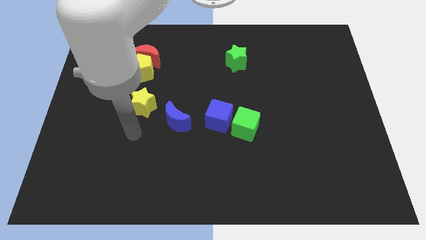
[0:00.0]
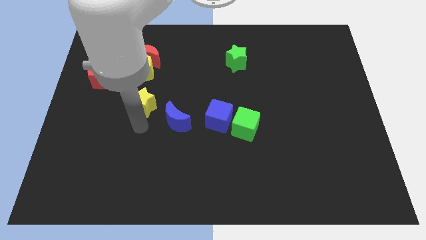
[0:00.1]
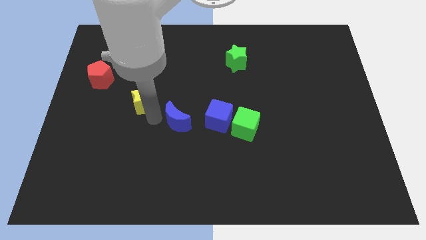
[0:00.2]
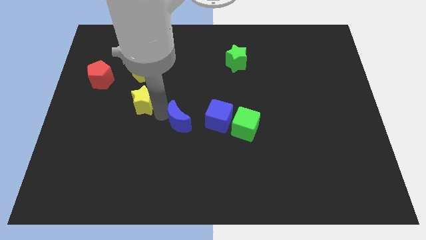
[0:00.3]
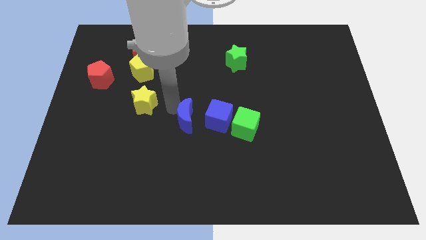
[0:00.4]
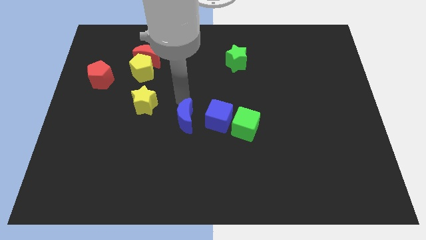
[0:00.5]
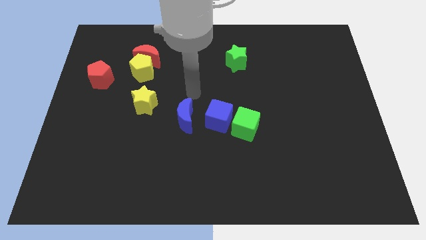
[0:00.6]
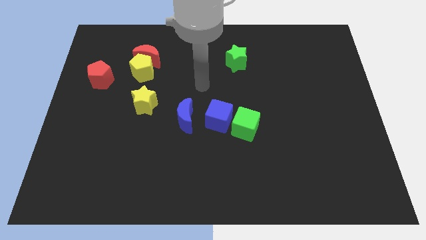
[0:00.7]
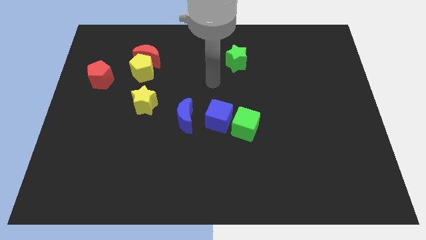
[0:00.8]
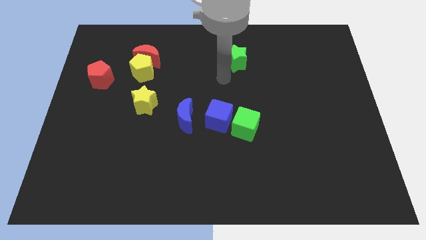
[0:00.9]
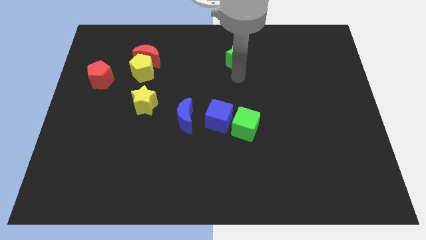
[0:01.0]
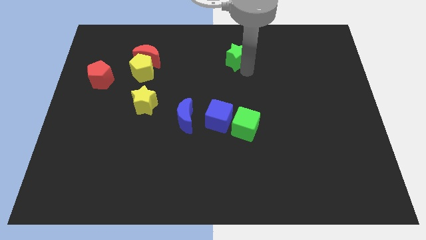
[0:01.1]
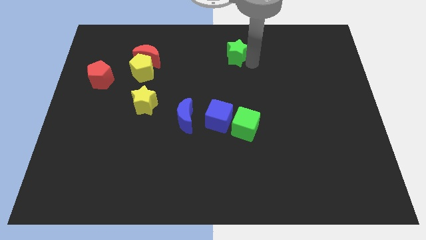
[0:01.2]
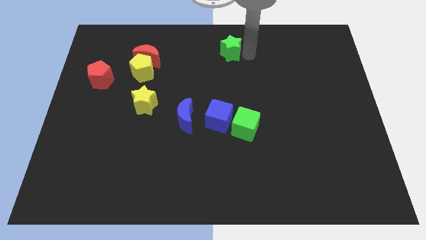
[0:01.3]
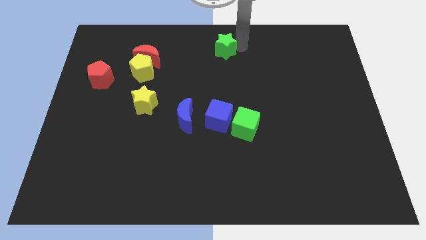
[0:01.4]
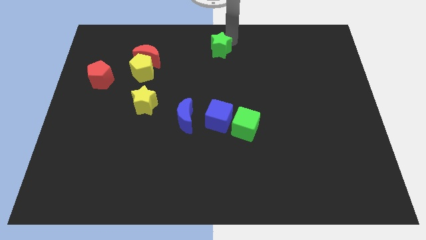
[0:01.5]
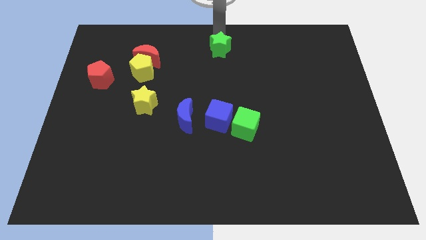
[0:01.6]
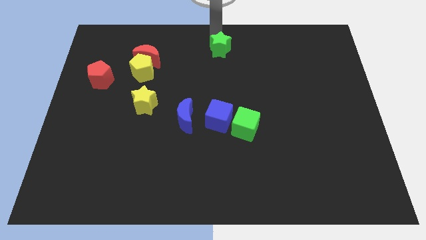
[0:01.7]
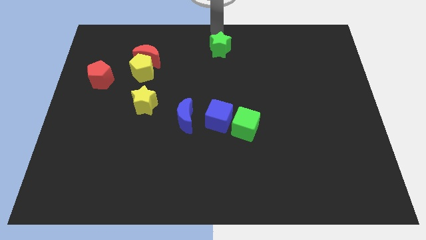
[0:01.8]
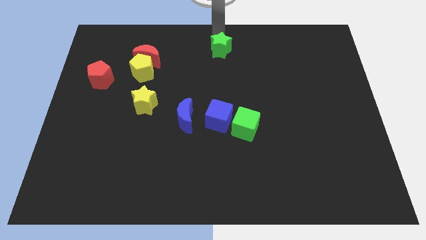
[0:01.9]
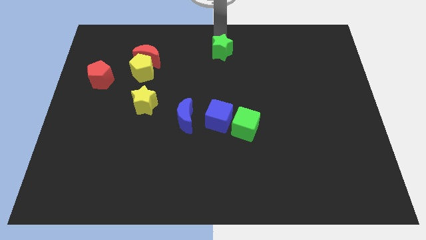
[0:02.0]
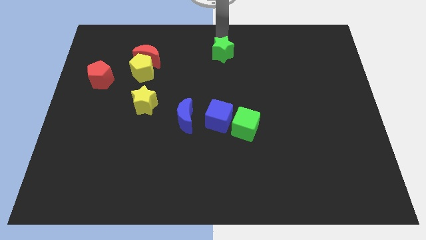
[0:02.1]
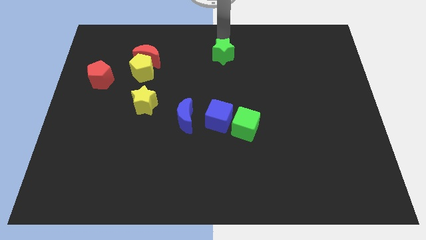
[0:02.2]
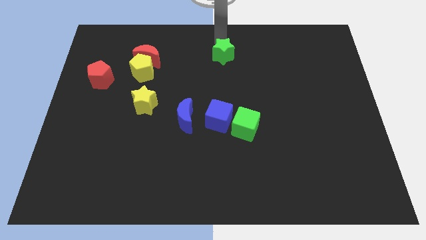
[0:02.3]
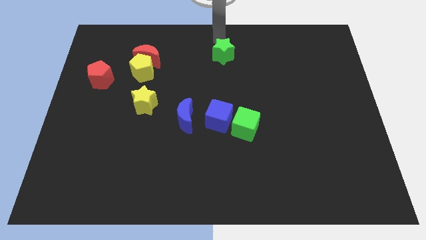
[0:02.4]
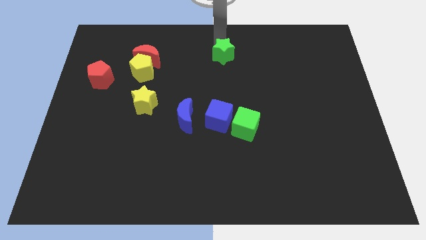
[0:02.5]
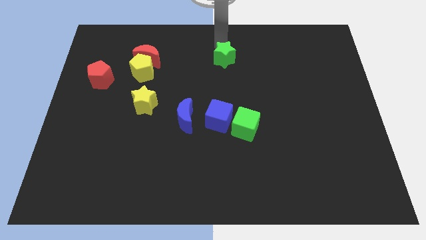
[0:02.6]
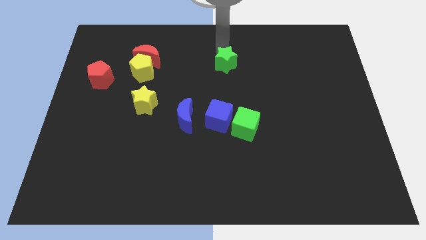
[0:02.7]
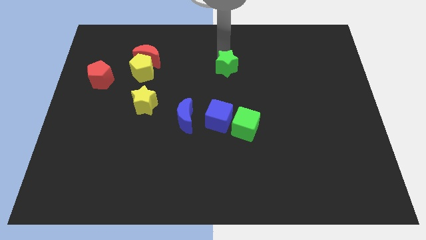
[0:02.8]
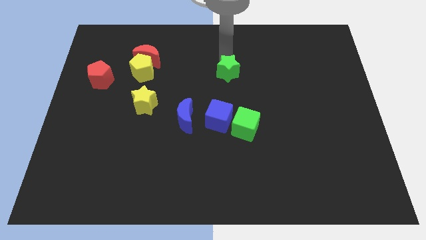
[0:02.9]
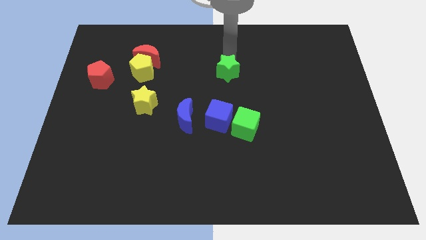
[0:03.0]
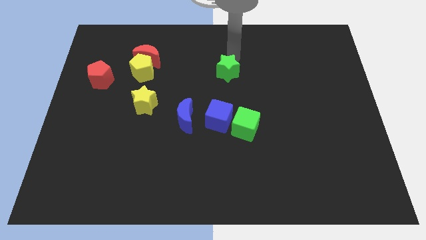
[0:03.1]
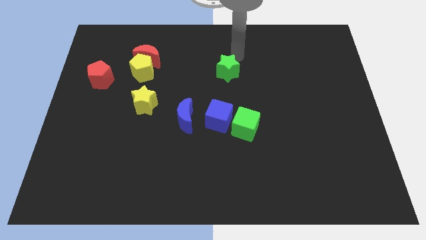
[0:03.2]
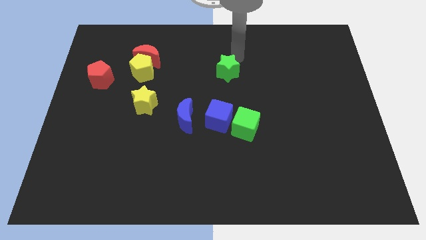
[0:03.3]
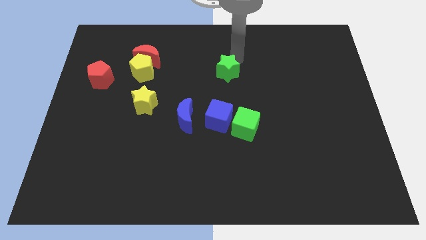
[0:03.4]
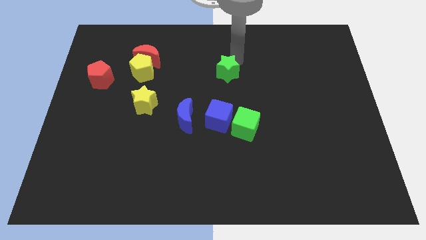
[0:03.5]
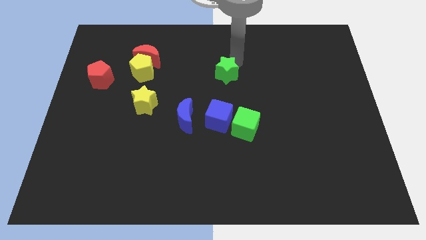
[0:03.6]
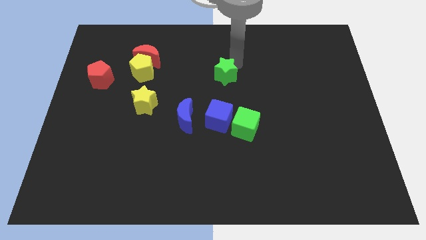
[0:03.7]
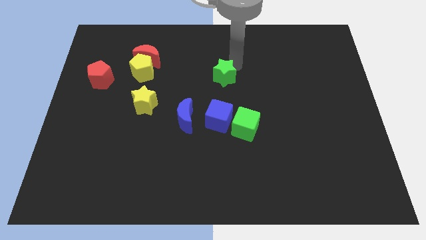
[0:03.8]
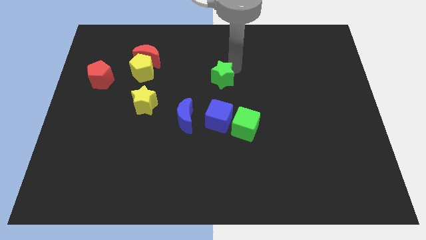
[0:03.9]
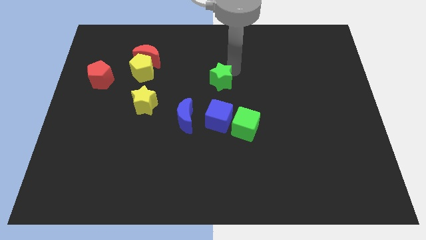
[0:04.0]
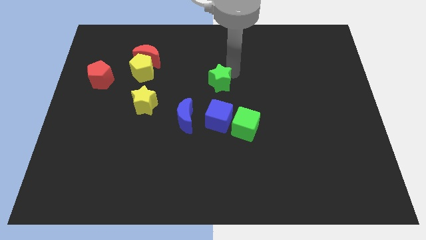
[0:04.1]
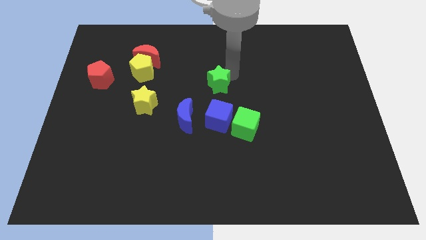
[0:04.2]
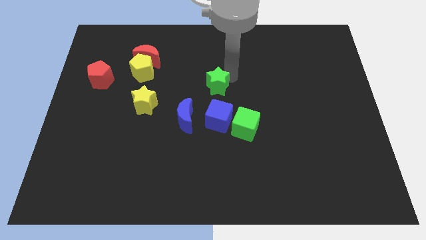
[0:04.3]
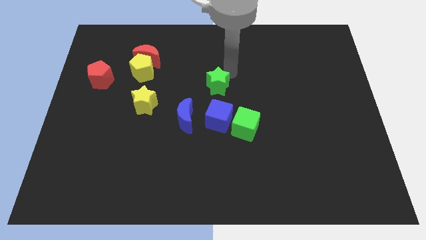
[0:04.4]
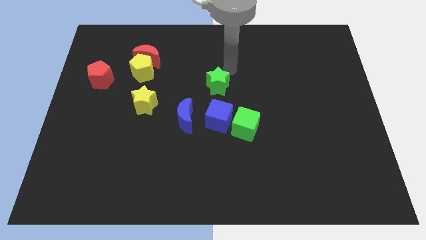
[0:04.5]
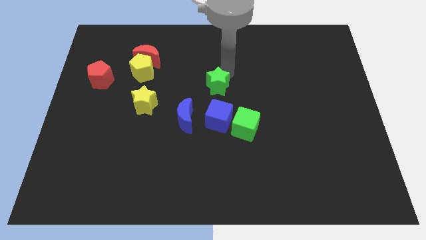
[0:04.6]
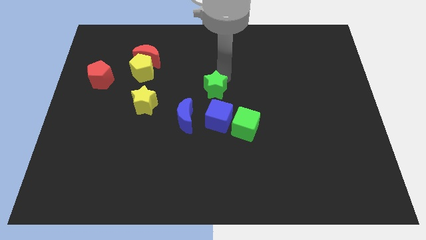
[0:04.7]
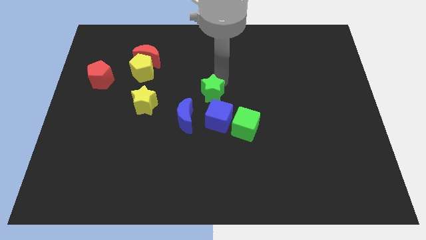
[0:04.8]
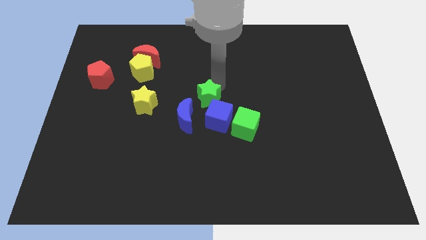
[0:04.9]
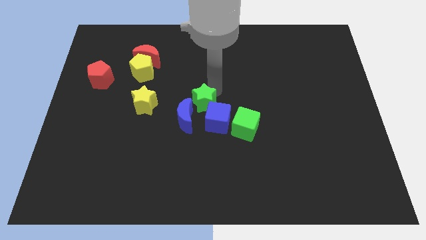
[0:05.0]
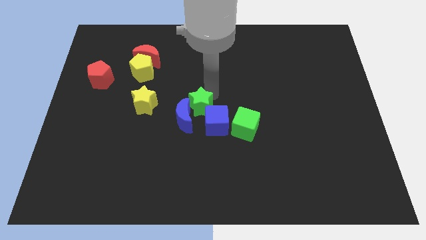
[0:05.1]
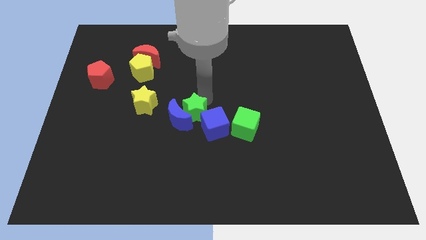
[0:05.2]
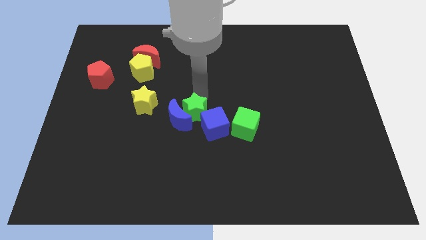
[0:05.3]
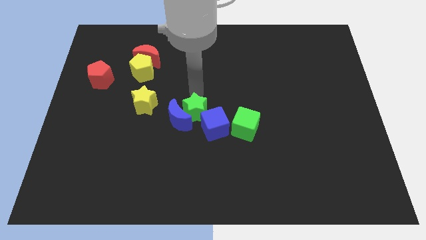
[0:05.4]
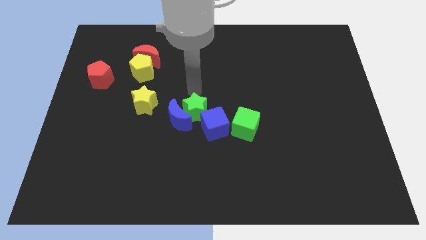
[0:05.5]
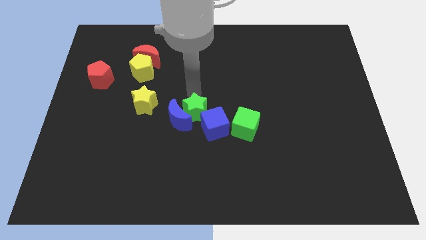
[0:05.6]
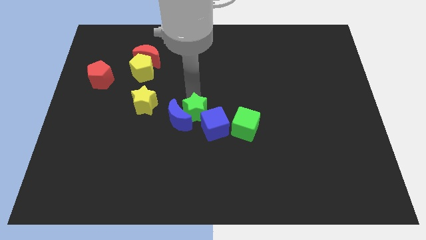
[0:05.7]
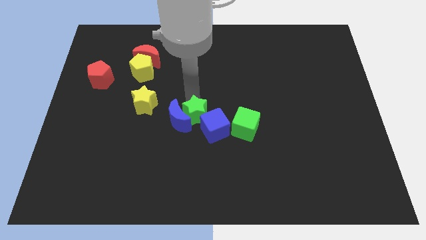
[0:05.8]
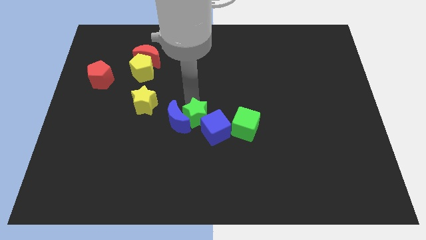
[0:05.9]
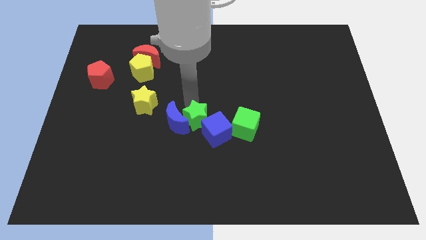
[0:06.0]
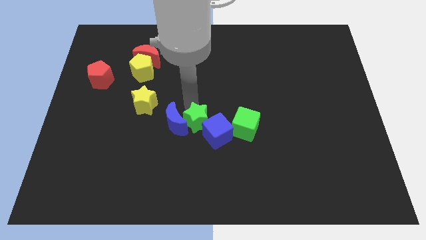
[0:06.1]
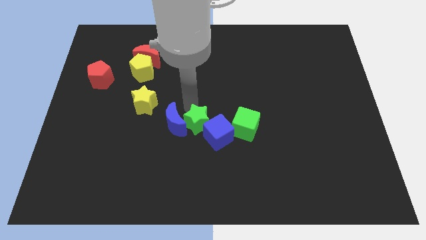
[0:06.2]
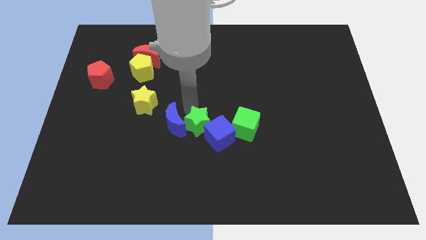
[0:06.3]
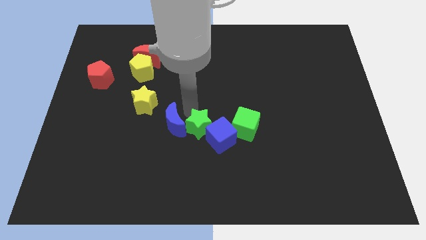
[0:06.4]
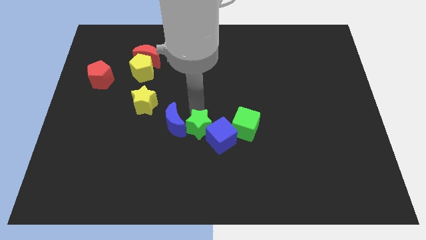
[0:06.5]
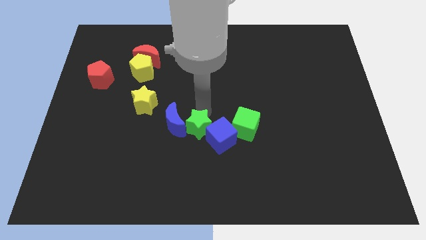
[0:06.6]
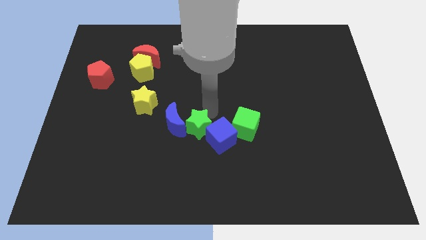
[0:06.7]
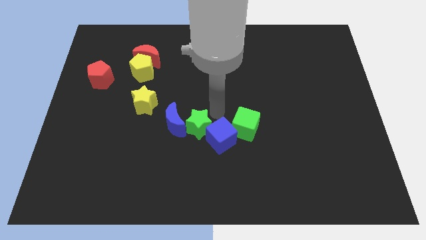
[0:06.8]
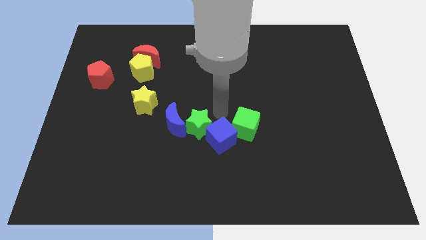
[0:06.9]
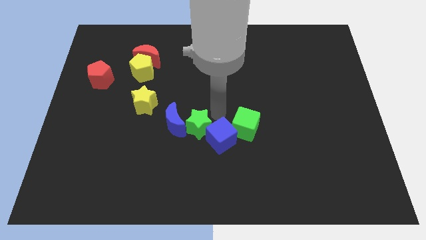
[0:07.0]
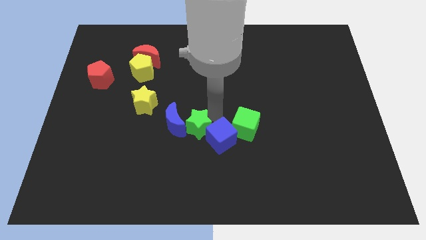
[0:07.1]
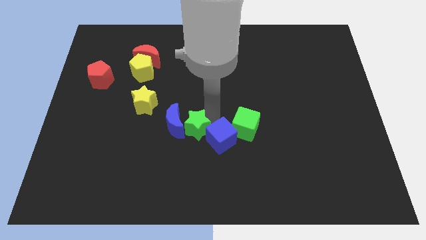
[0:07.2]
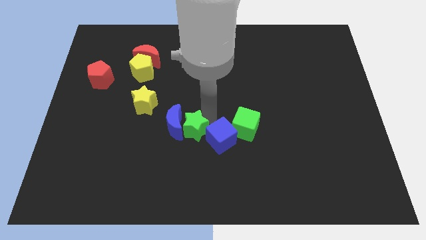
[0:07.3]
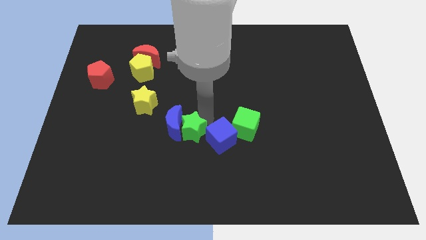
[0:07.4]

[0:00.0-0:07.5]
move the green star diagonally downwards and left

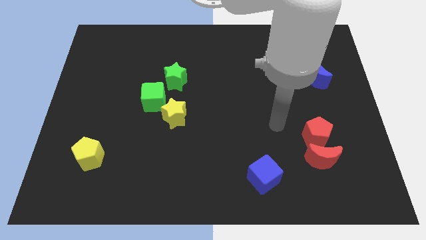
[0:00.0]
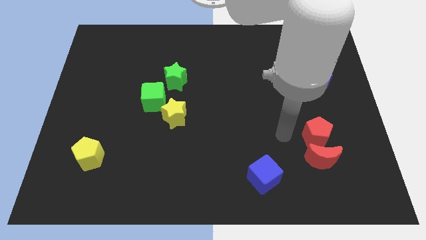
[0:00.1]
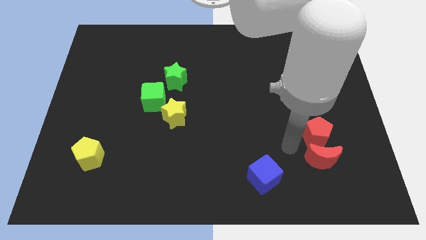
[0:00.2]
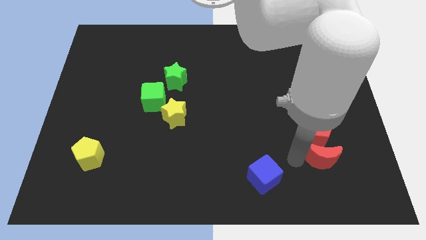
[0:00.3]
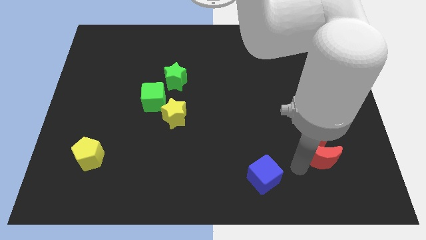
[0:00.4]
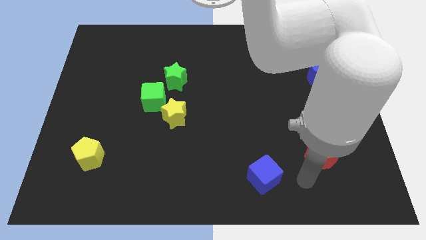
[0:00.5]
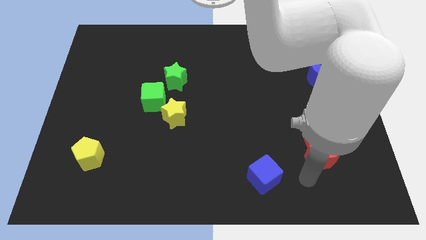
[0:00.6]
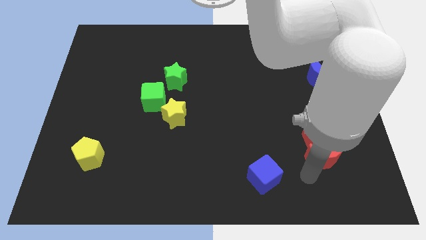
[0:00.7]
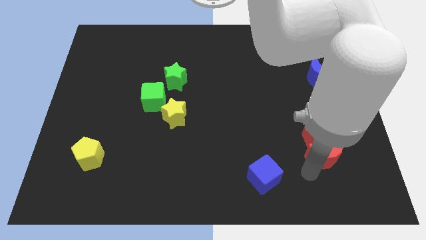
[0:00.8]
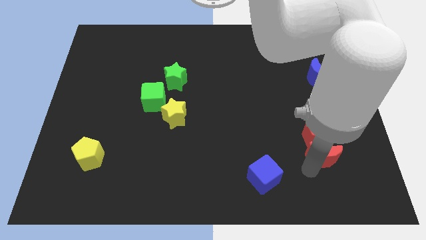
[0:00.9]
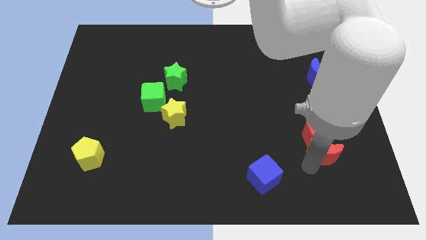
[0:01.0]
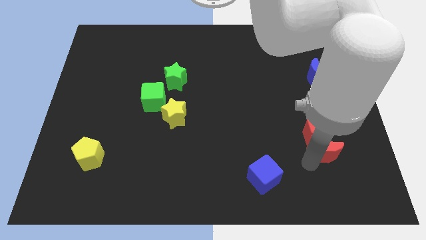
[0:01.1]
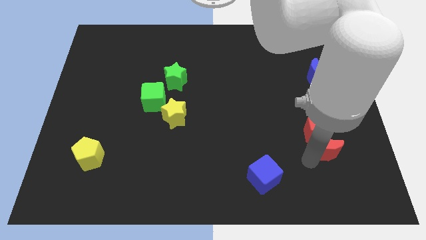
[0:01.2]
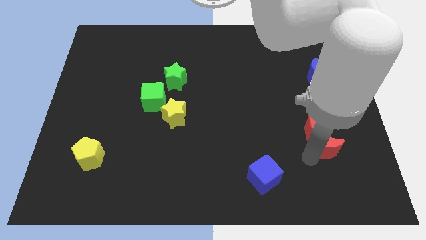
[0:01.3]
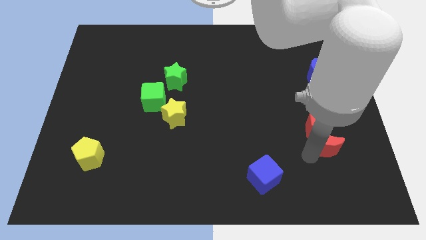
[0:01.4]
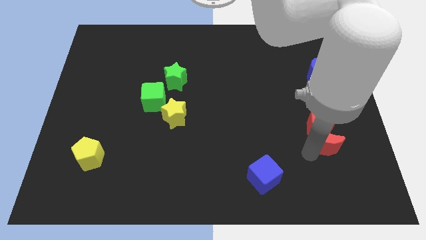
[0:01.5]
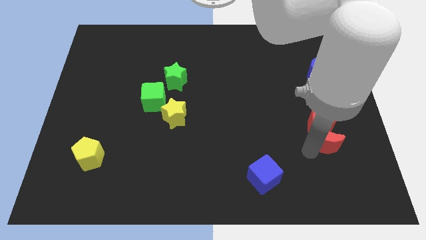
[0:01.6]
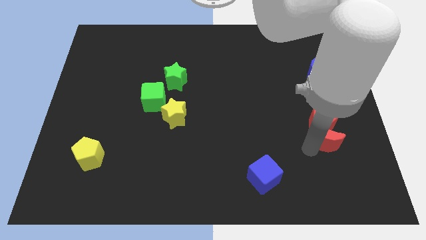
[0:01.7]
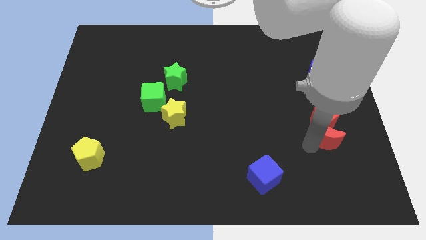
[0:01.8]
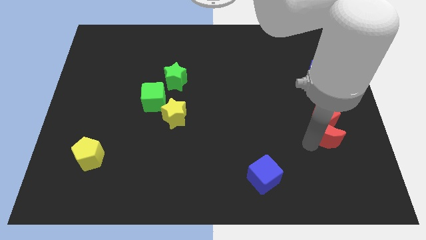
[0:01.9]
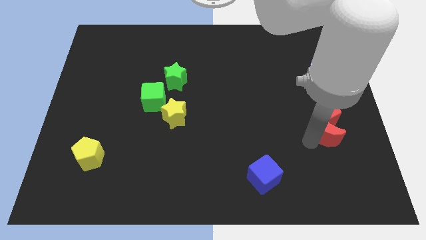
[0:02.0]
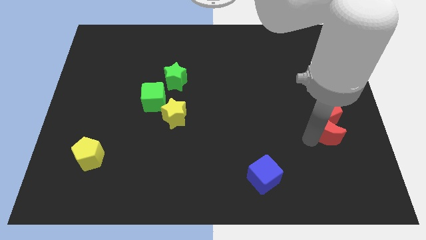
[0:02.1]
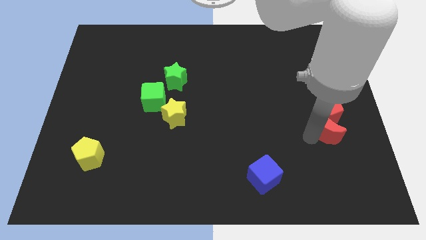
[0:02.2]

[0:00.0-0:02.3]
slightly move the red moon upwards
